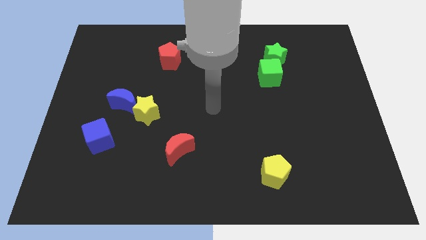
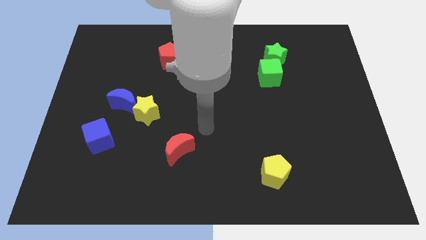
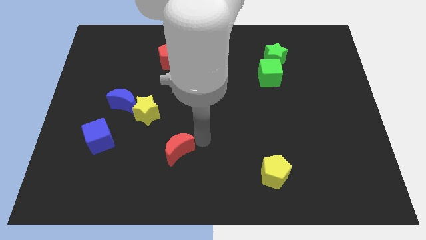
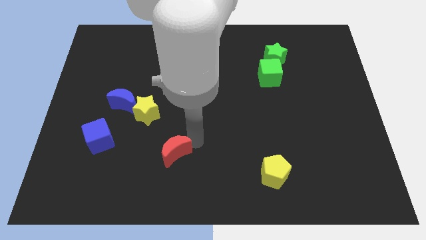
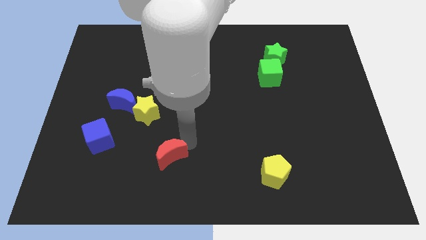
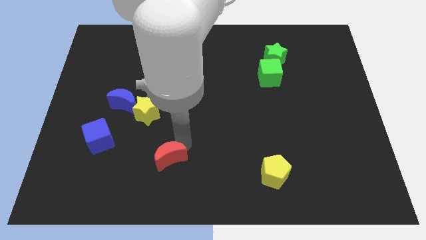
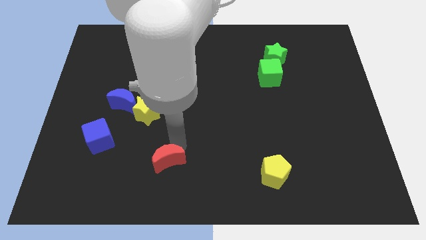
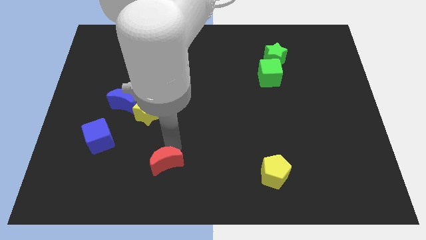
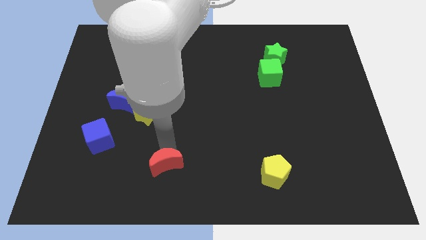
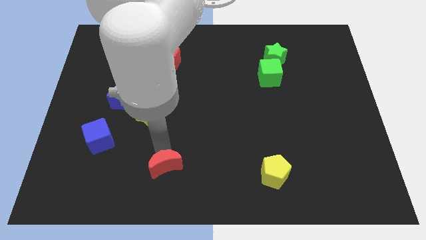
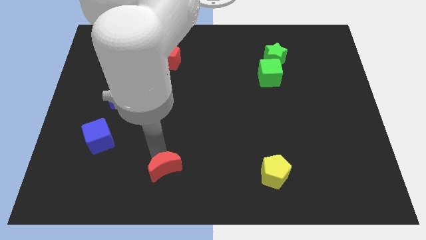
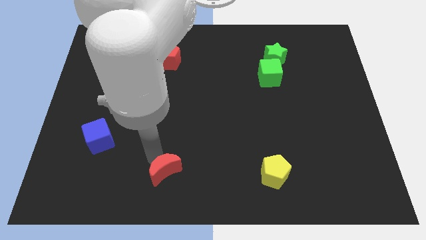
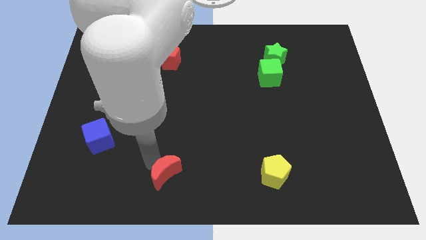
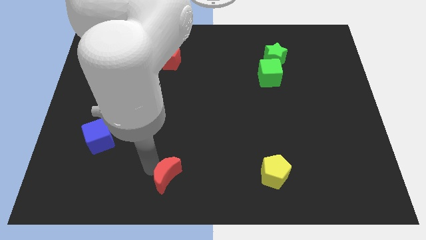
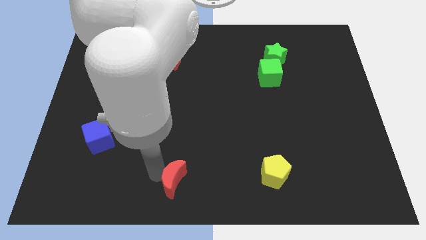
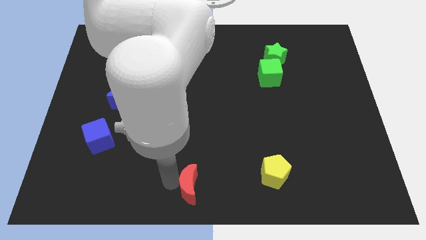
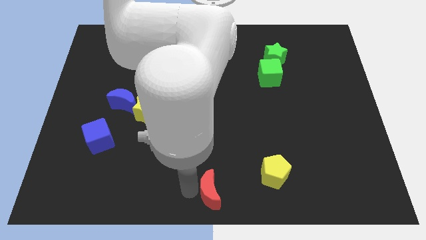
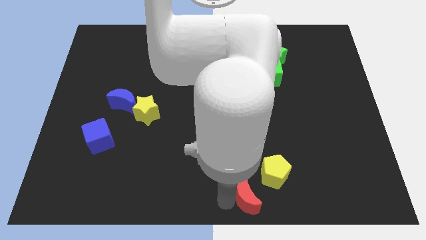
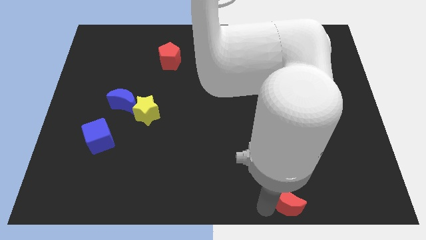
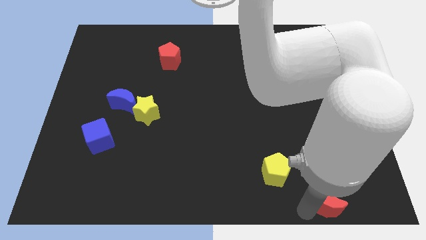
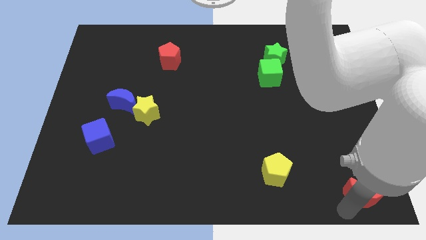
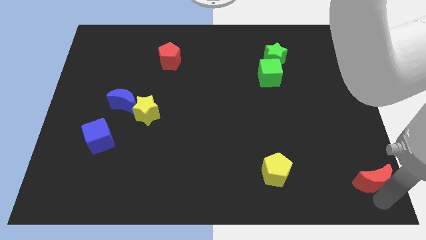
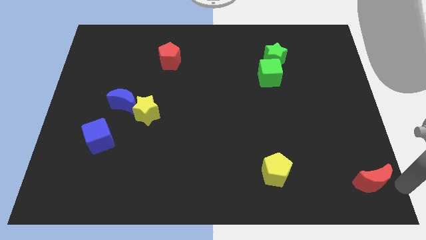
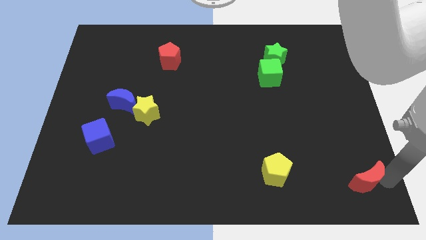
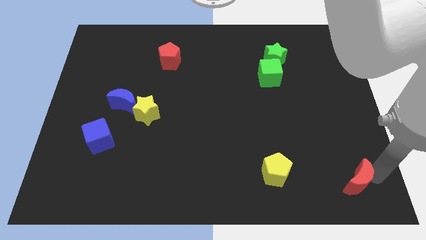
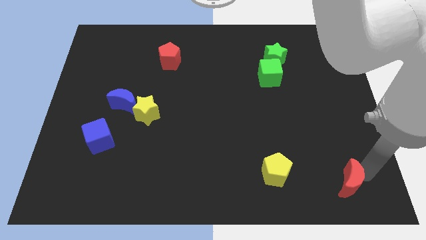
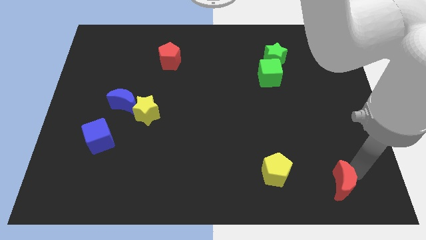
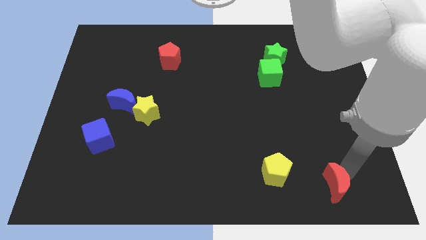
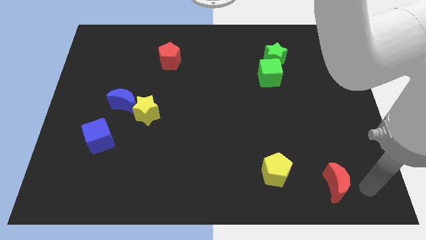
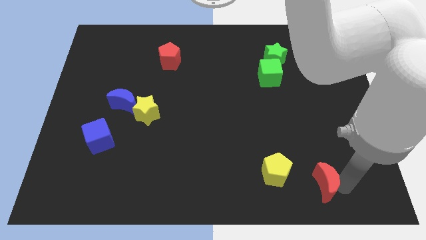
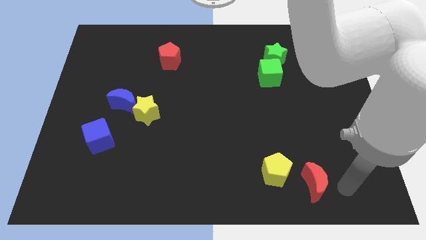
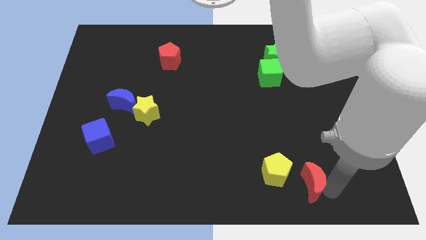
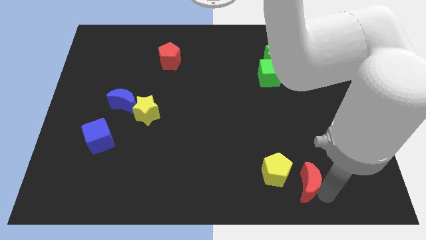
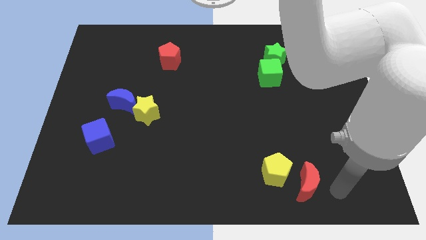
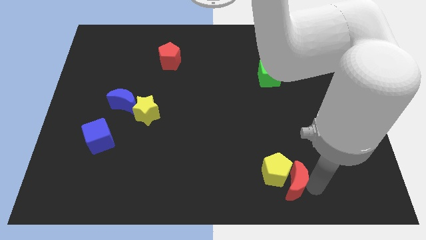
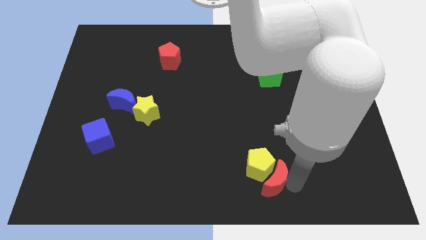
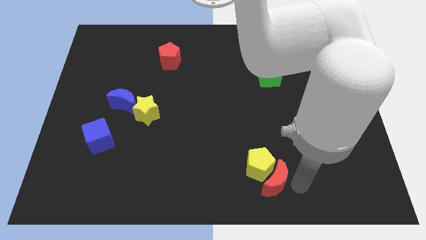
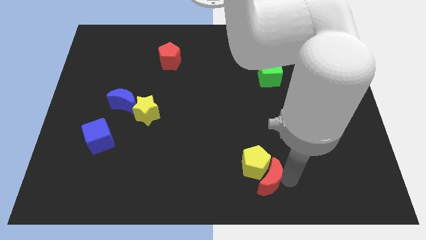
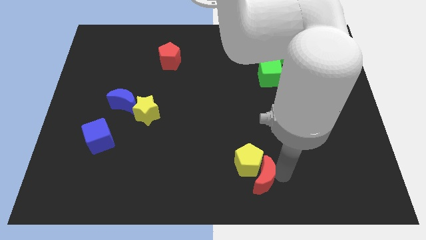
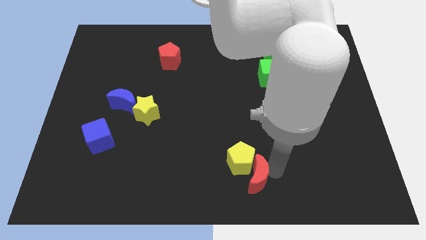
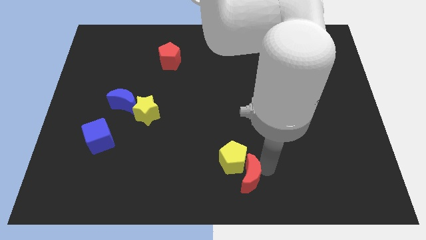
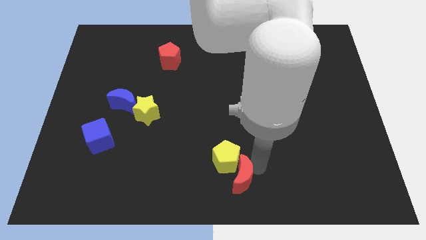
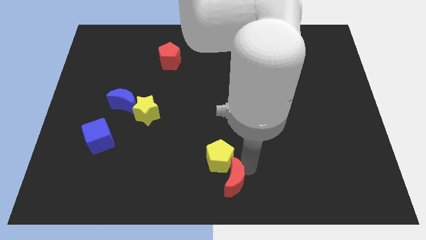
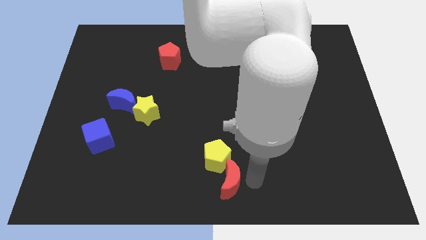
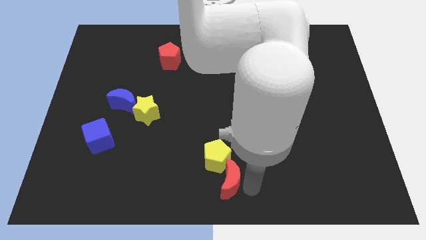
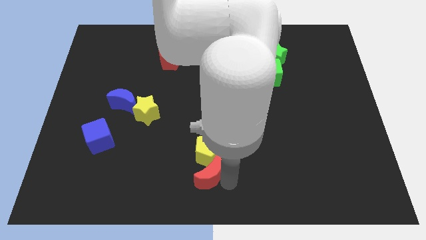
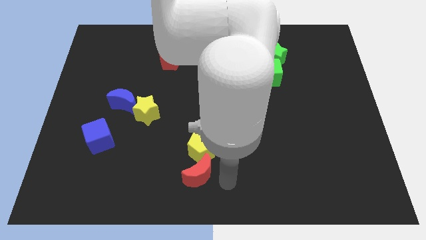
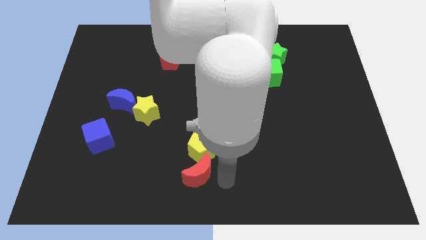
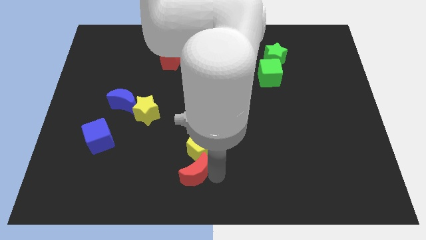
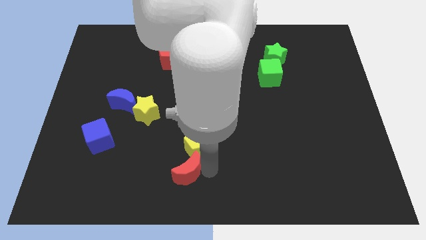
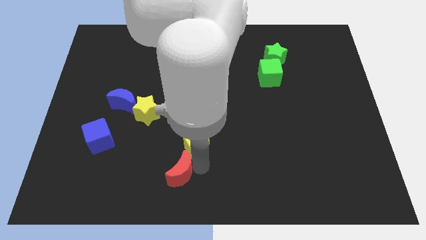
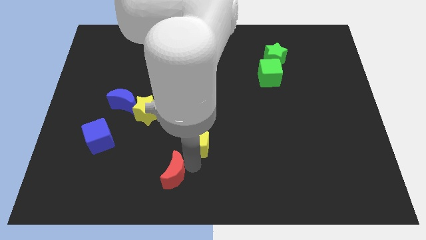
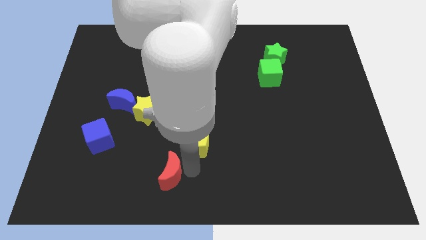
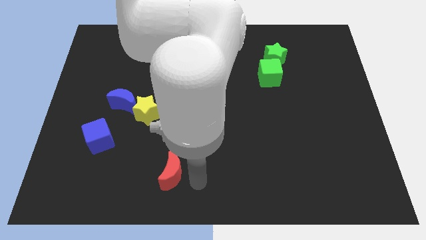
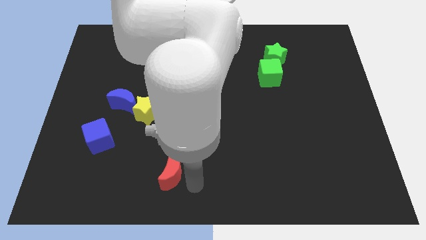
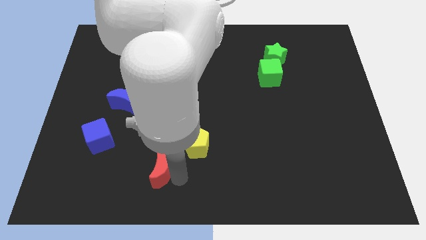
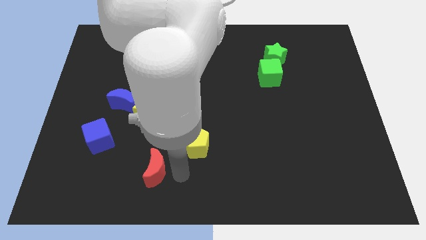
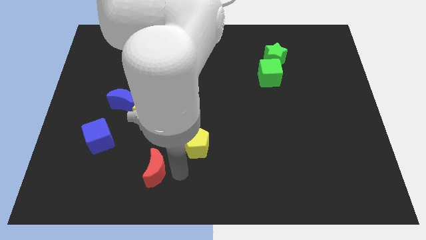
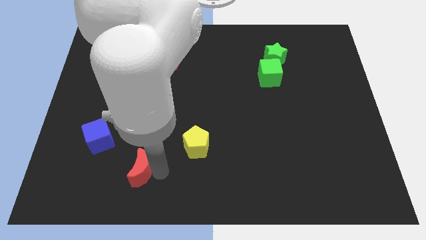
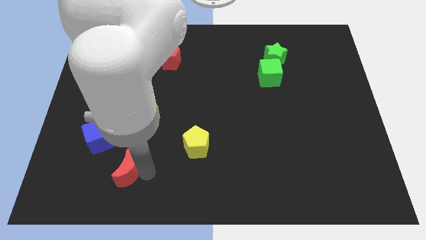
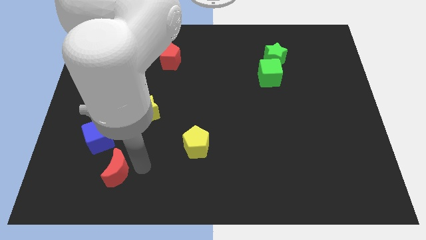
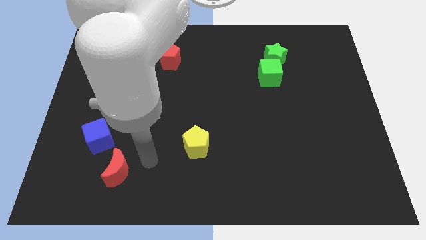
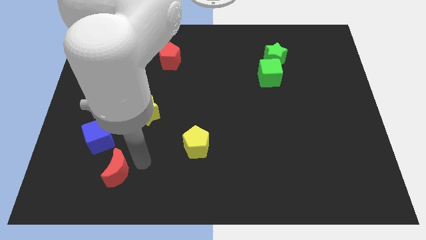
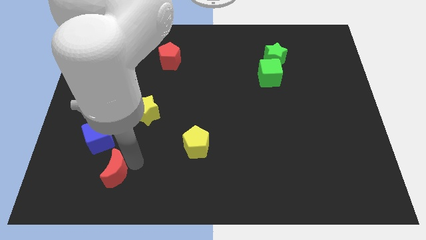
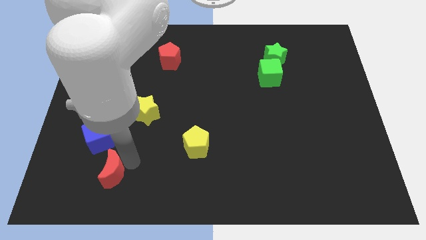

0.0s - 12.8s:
move the red moon to the bottom of the blue cube
